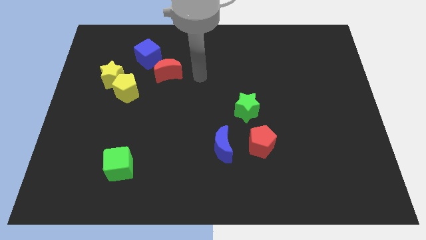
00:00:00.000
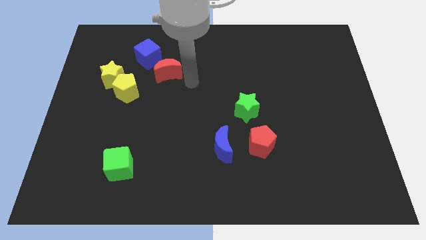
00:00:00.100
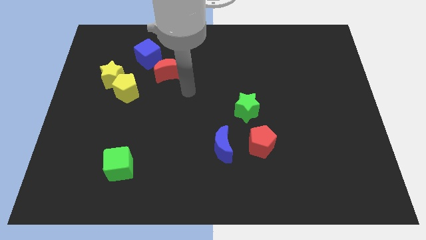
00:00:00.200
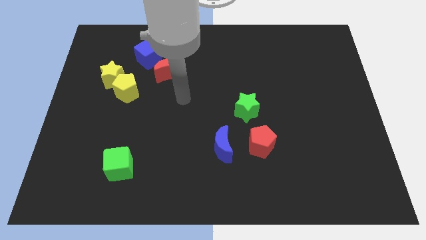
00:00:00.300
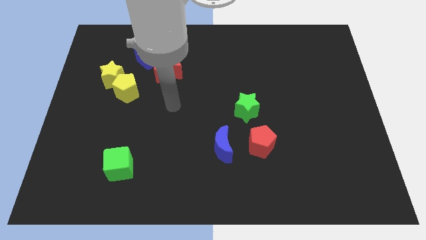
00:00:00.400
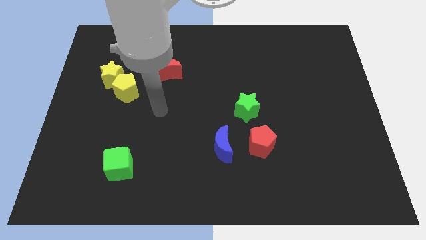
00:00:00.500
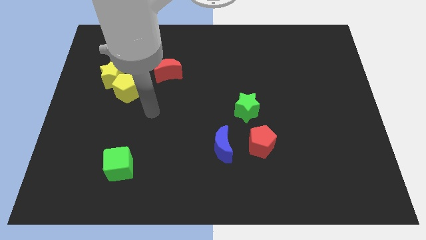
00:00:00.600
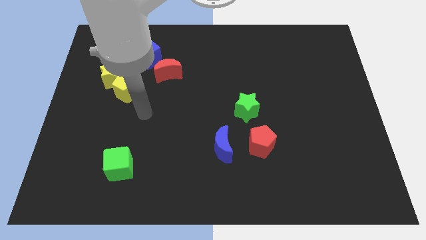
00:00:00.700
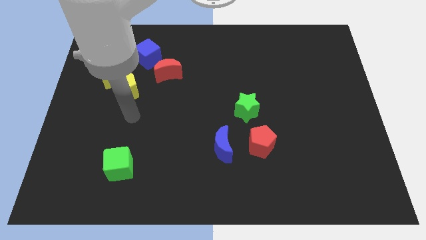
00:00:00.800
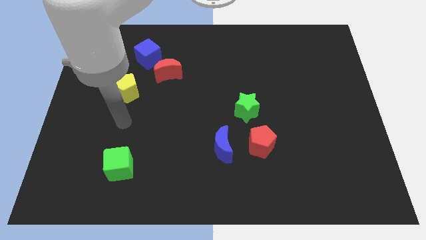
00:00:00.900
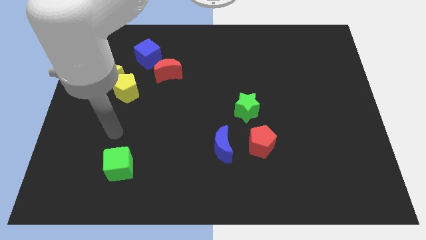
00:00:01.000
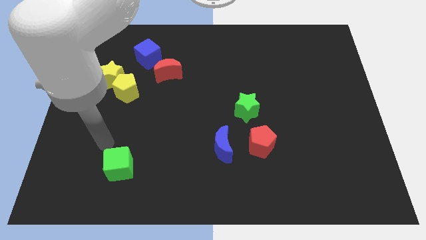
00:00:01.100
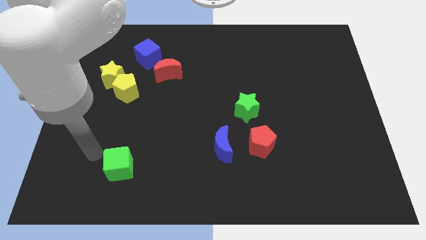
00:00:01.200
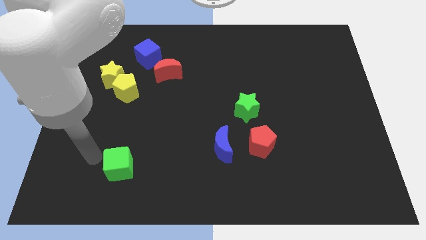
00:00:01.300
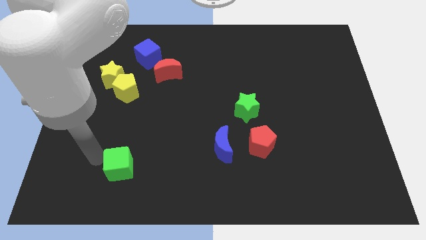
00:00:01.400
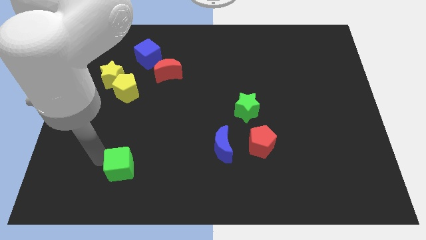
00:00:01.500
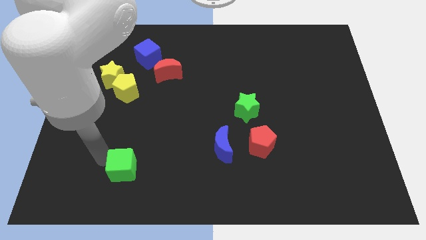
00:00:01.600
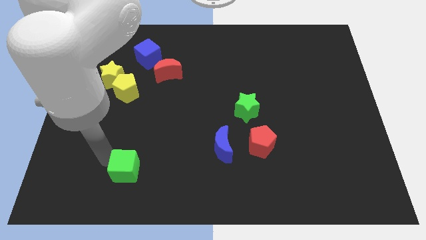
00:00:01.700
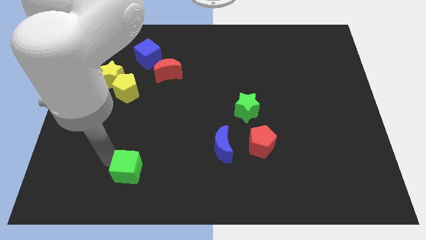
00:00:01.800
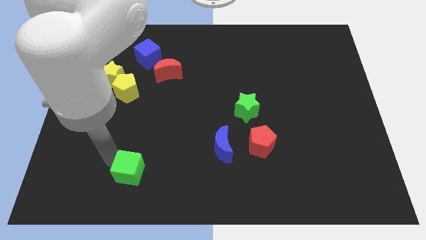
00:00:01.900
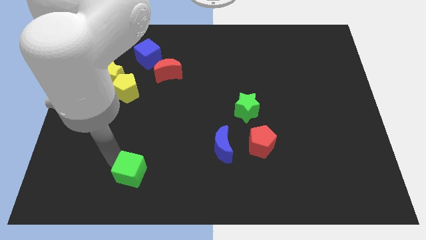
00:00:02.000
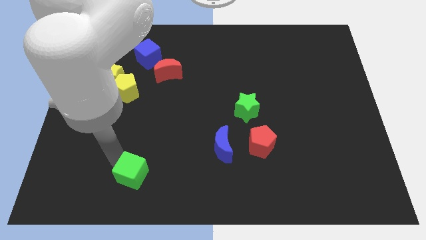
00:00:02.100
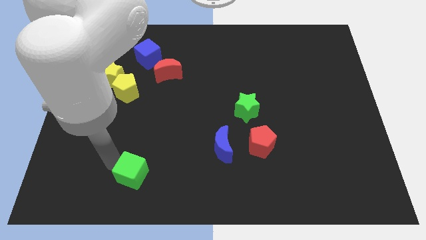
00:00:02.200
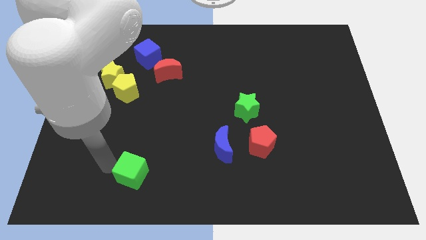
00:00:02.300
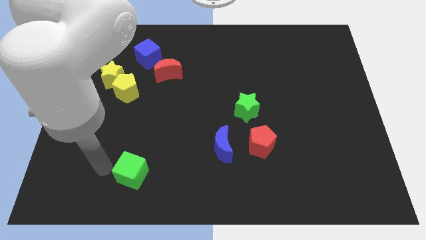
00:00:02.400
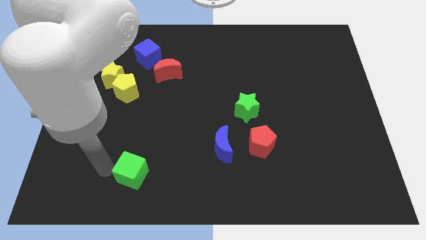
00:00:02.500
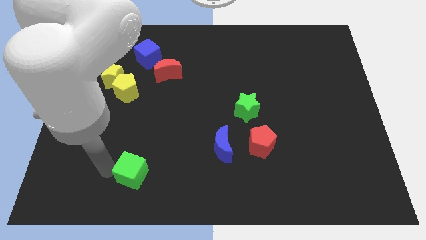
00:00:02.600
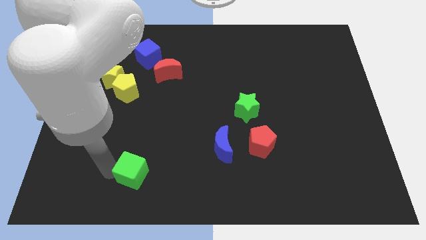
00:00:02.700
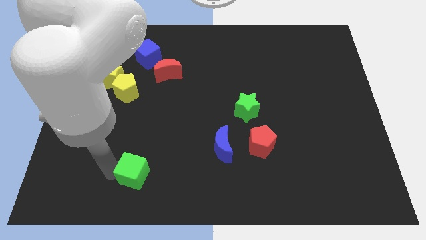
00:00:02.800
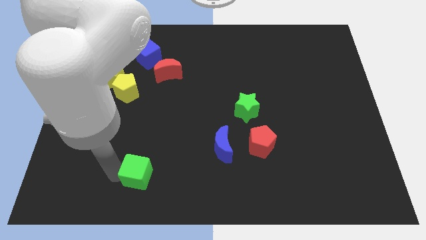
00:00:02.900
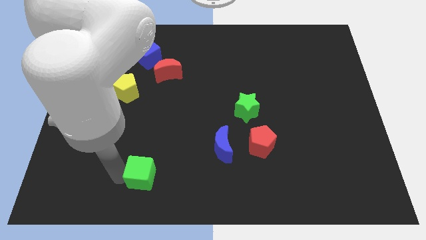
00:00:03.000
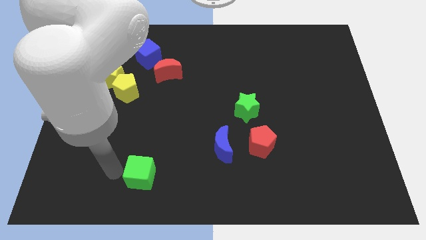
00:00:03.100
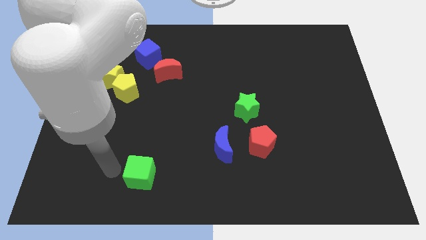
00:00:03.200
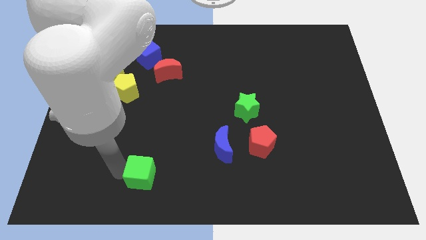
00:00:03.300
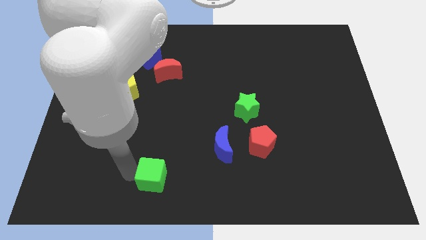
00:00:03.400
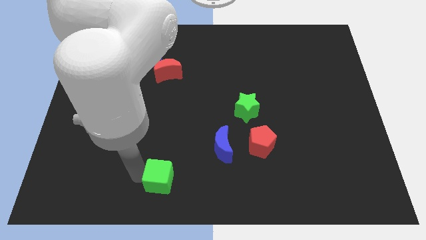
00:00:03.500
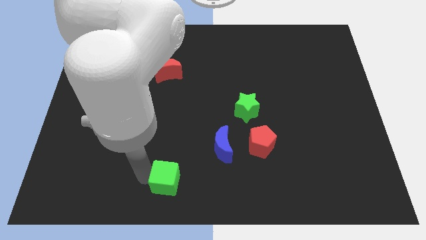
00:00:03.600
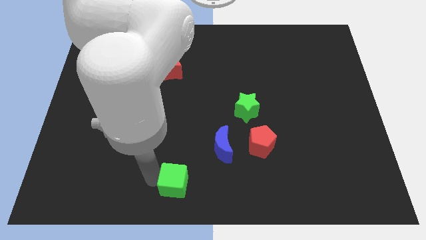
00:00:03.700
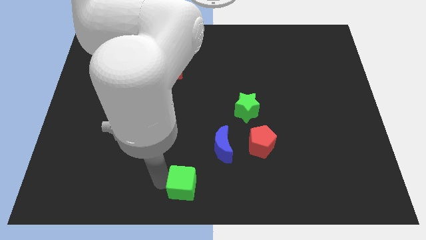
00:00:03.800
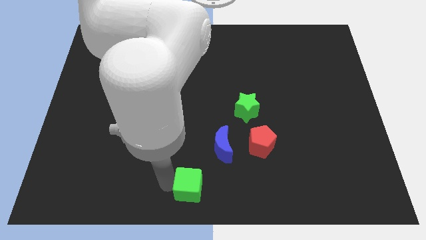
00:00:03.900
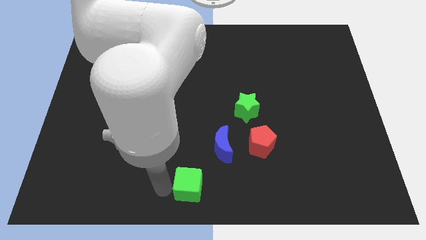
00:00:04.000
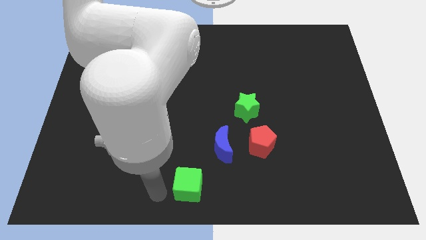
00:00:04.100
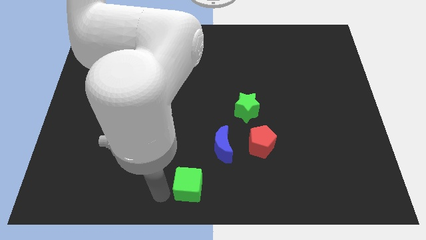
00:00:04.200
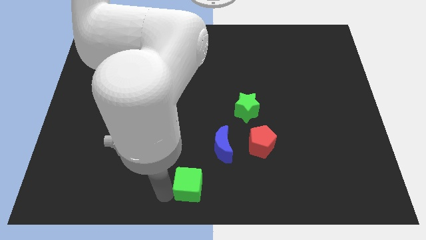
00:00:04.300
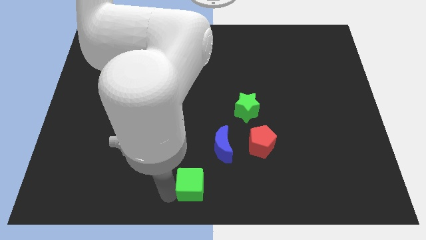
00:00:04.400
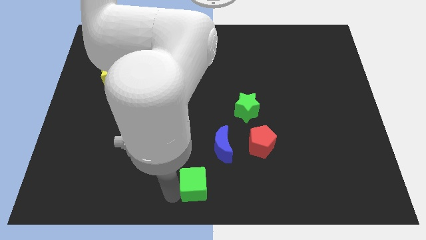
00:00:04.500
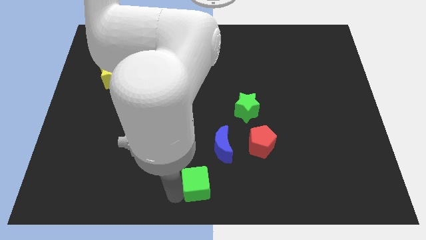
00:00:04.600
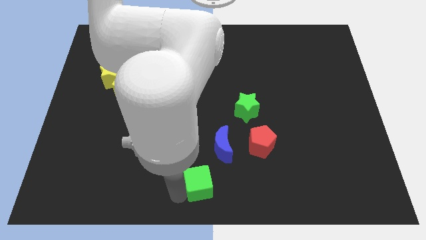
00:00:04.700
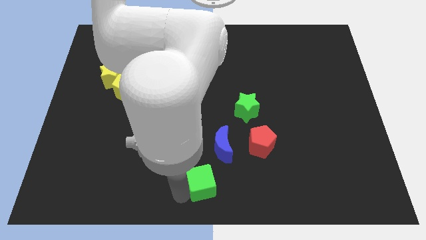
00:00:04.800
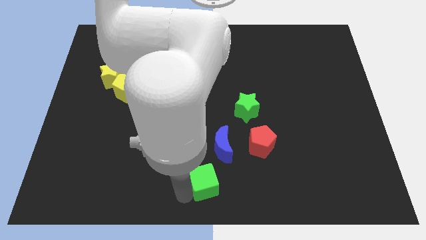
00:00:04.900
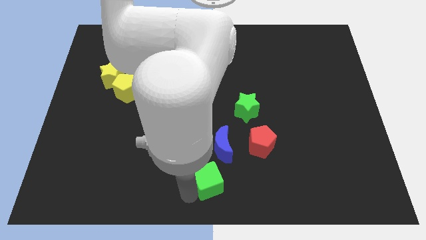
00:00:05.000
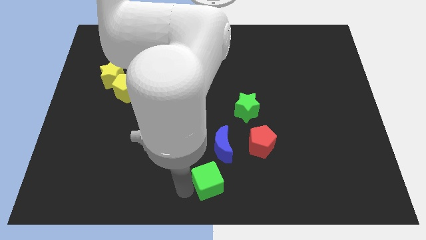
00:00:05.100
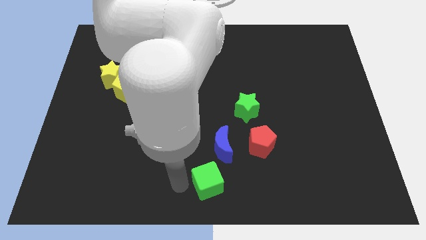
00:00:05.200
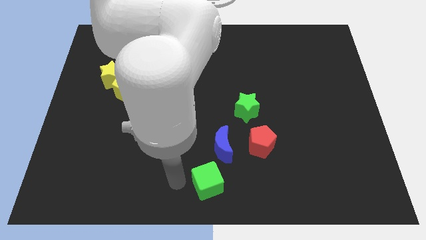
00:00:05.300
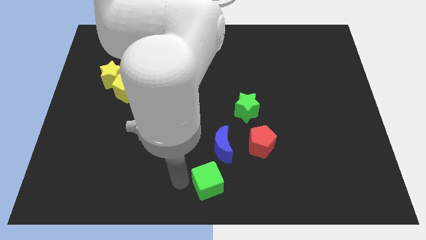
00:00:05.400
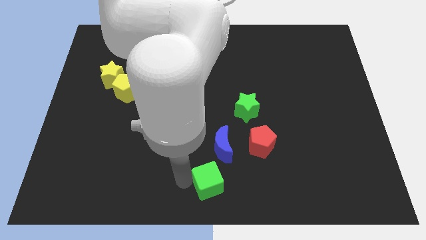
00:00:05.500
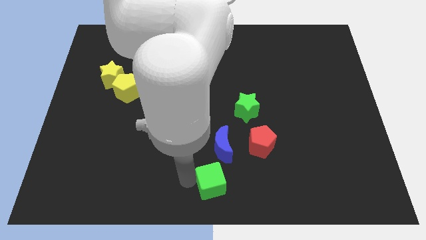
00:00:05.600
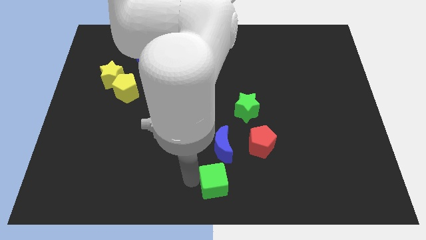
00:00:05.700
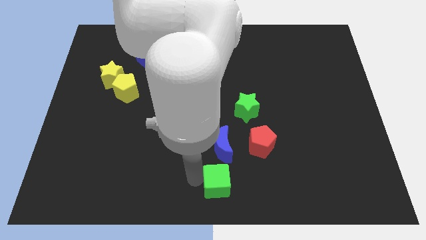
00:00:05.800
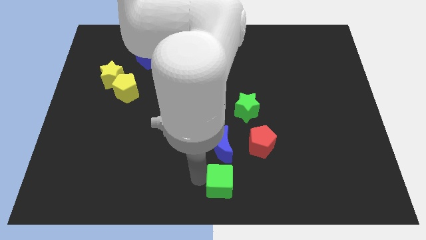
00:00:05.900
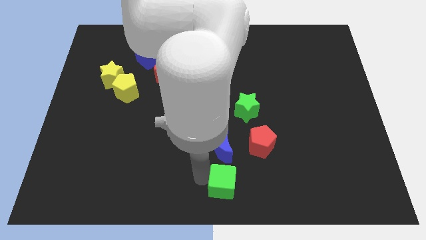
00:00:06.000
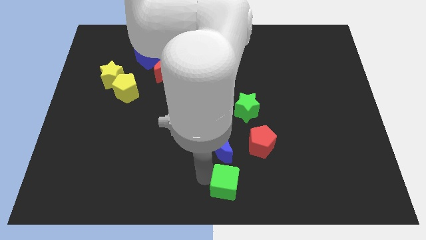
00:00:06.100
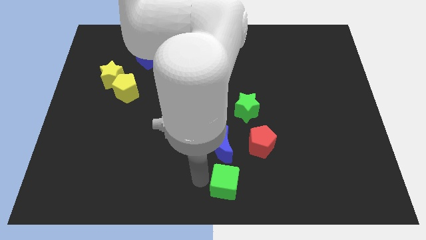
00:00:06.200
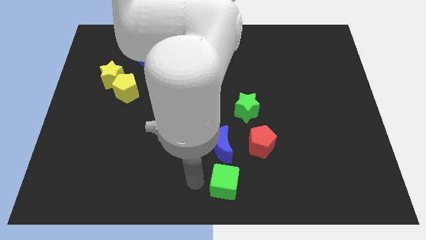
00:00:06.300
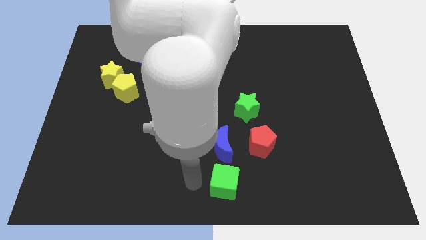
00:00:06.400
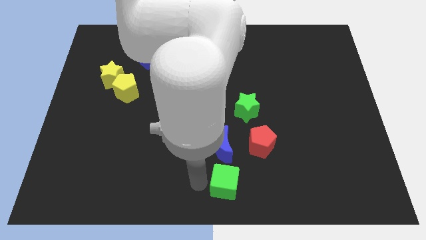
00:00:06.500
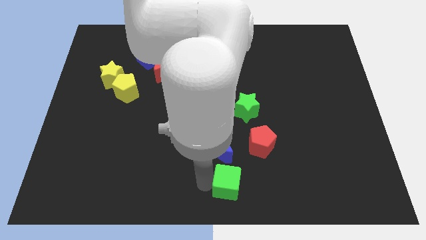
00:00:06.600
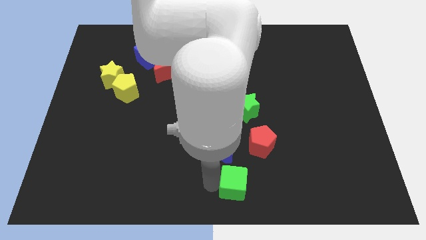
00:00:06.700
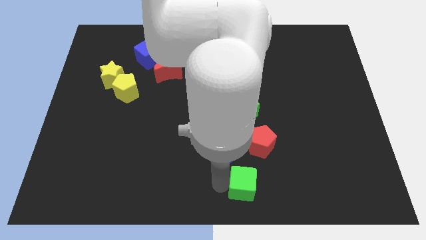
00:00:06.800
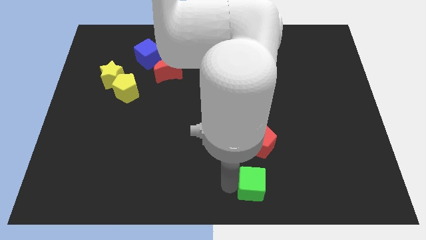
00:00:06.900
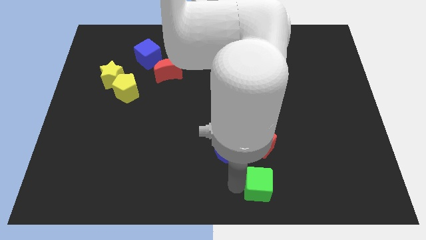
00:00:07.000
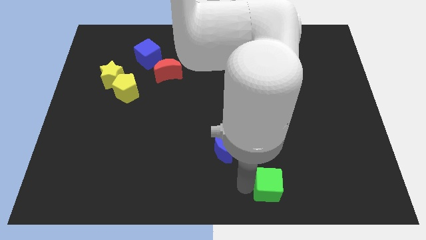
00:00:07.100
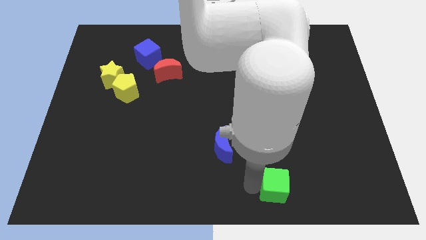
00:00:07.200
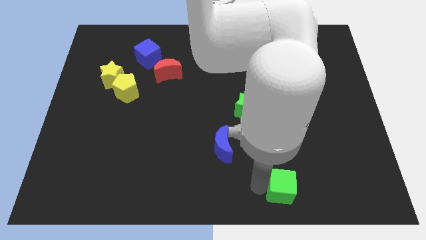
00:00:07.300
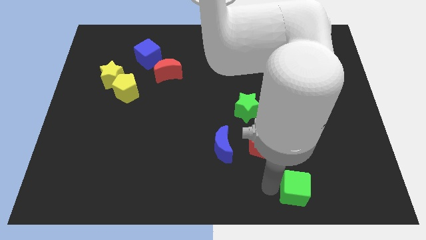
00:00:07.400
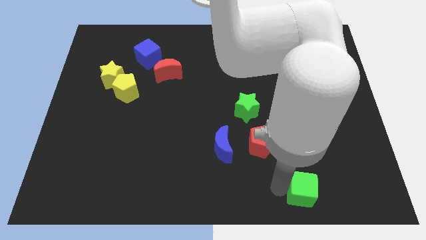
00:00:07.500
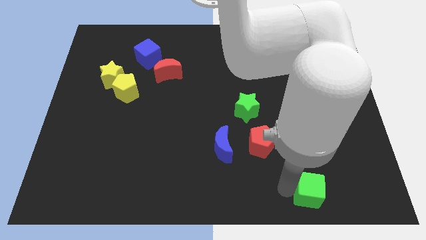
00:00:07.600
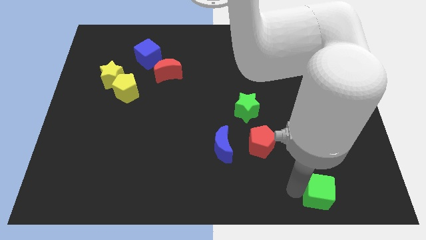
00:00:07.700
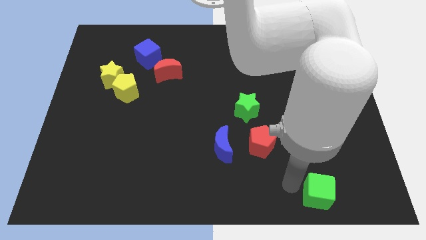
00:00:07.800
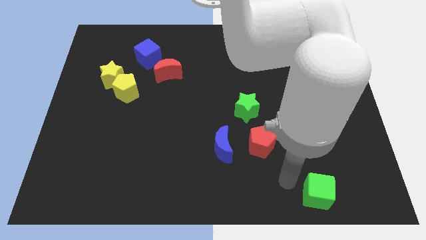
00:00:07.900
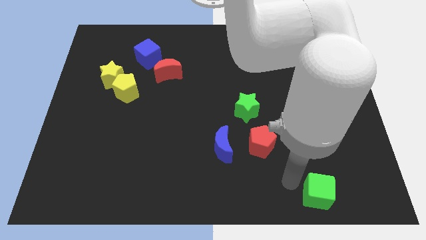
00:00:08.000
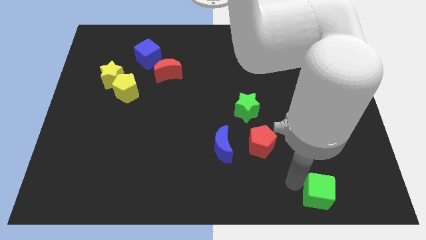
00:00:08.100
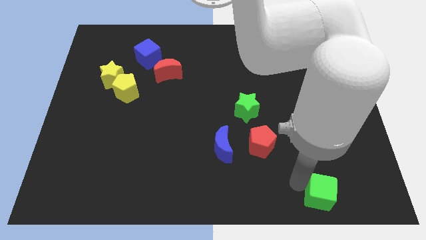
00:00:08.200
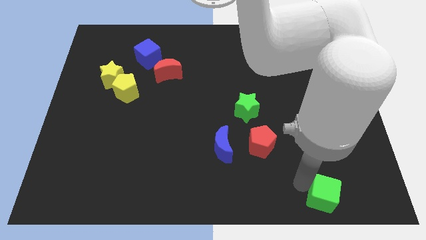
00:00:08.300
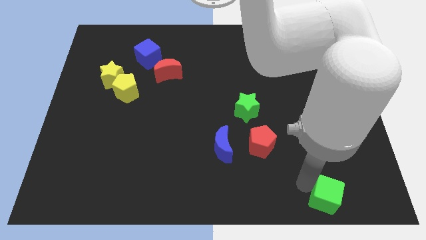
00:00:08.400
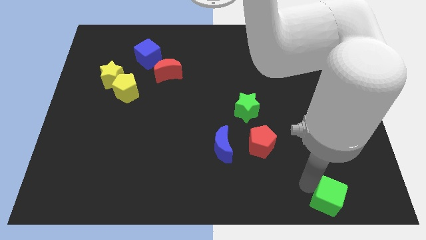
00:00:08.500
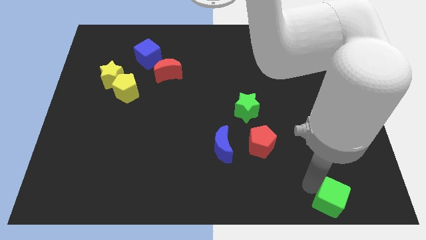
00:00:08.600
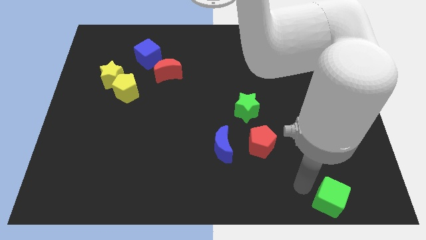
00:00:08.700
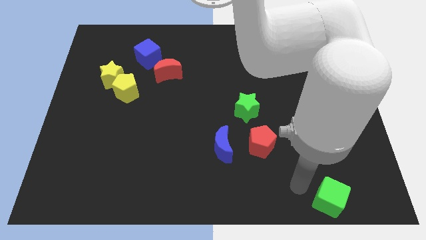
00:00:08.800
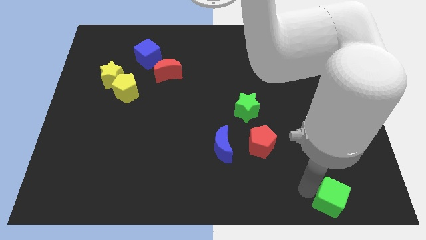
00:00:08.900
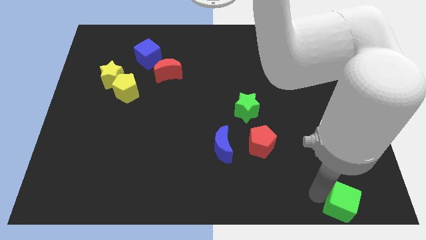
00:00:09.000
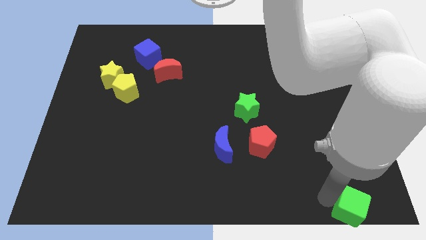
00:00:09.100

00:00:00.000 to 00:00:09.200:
move the green cube to the bottom right of the board
